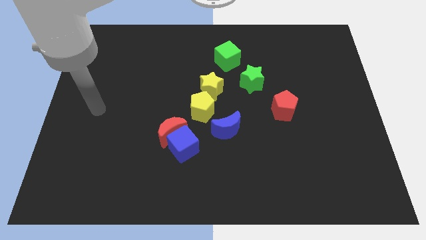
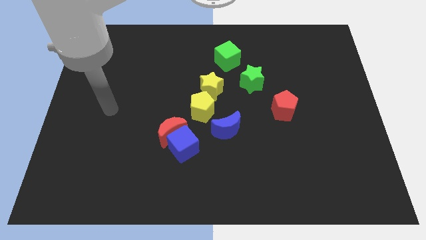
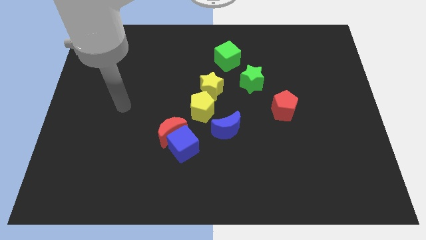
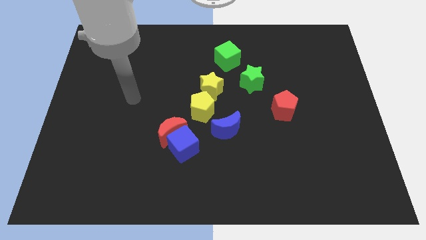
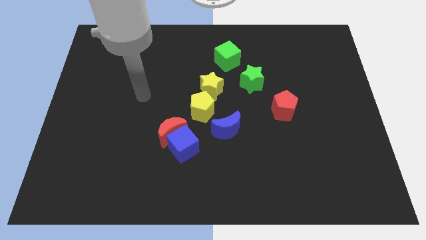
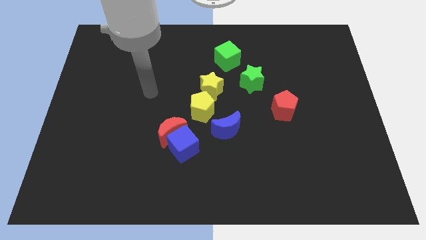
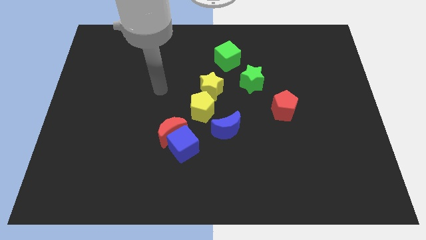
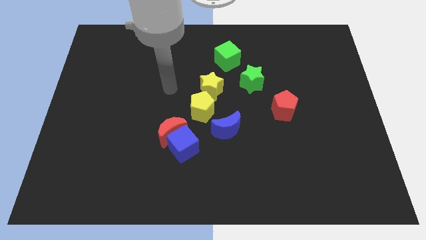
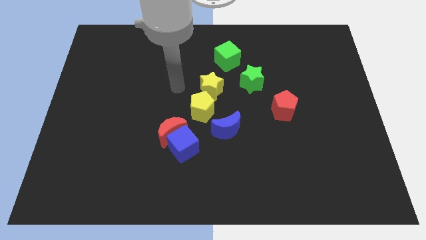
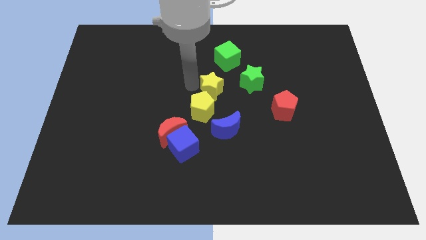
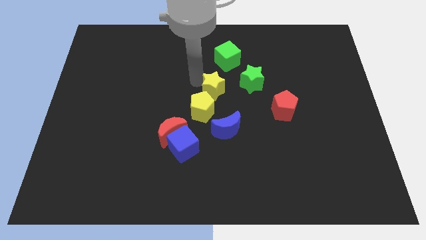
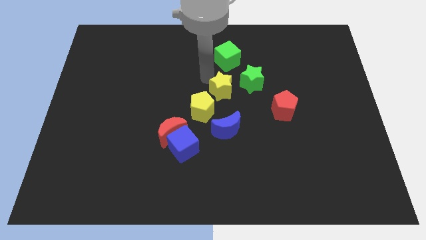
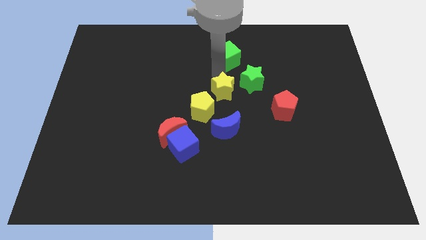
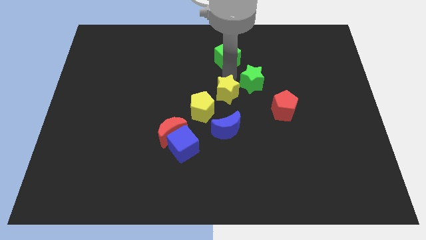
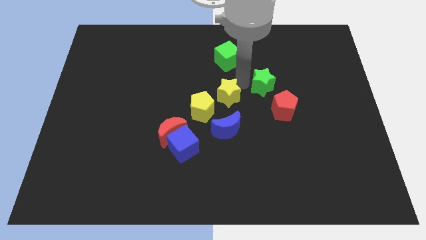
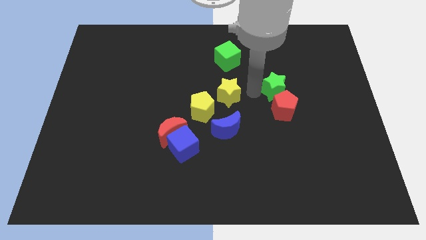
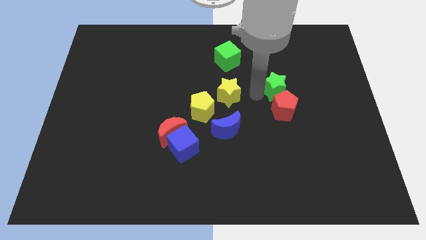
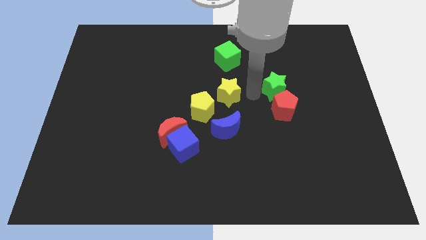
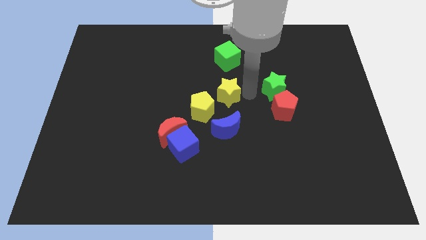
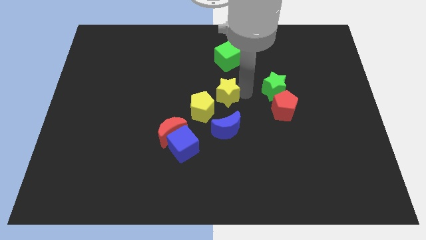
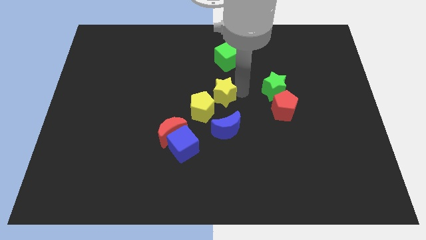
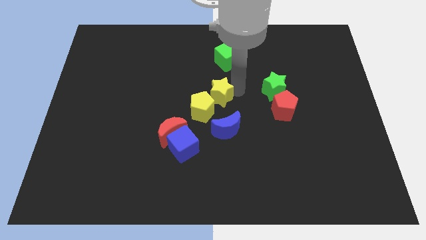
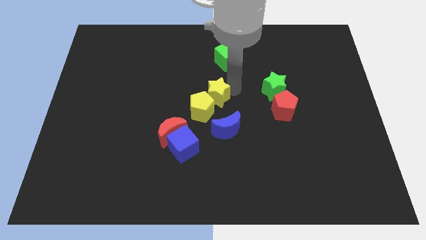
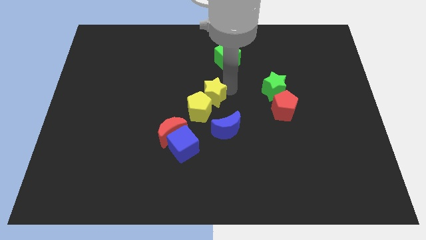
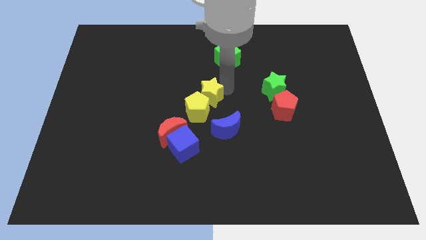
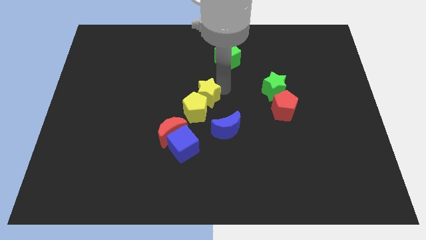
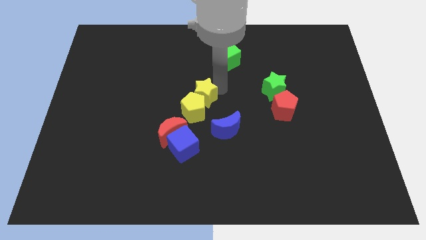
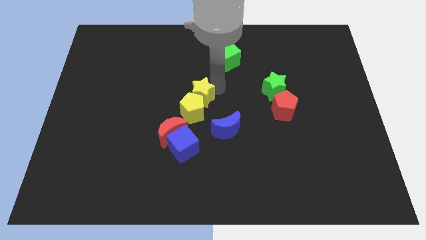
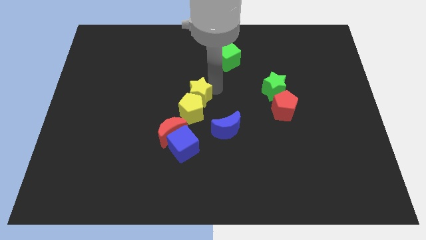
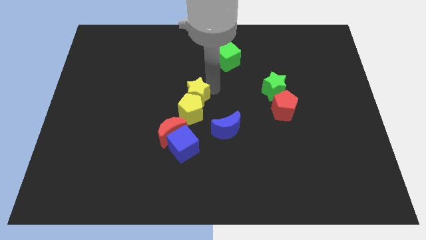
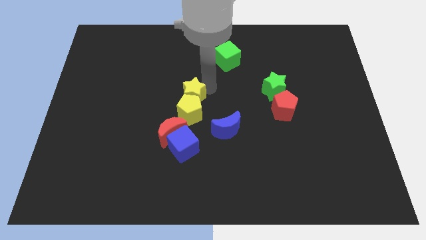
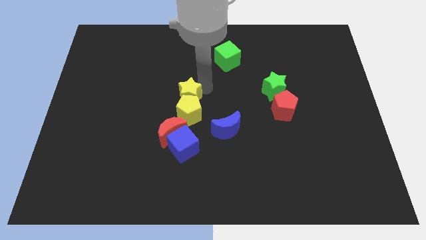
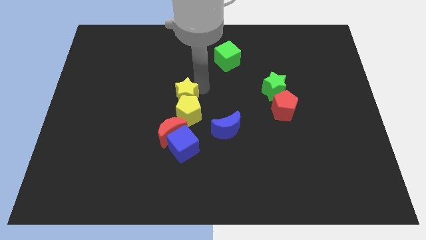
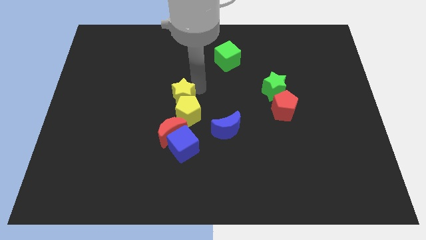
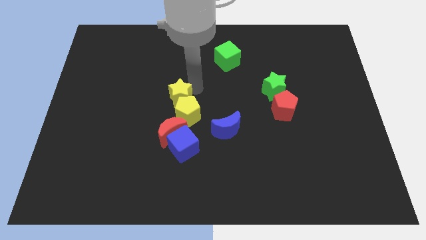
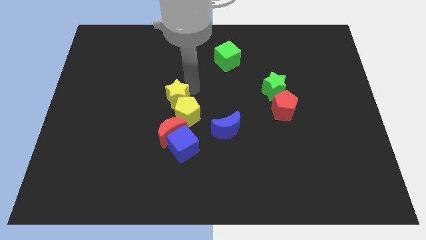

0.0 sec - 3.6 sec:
push the yellow star a little down and left

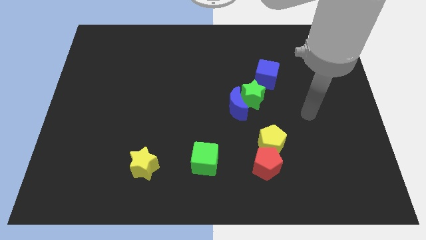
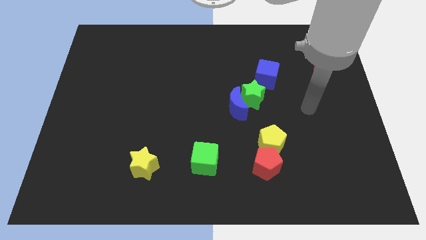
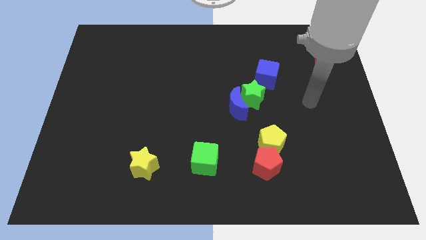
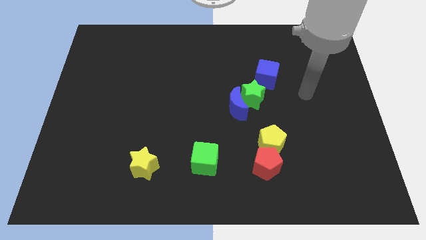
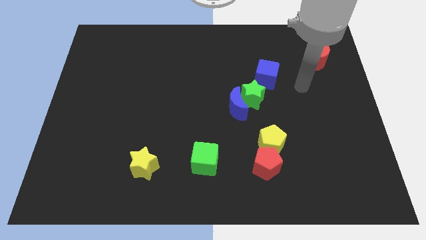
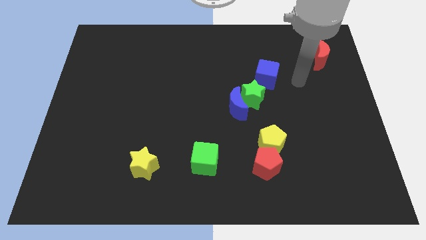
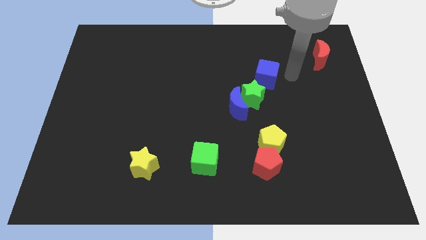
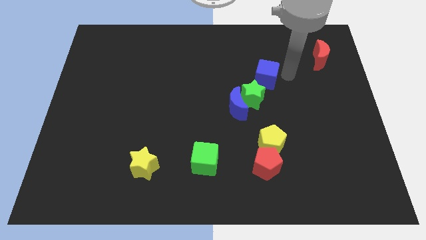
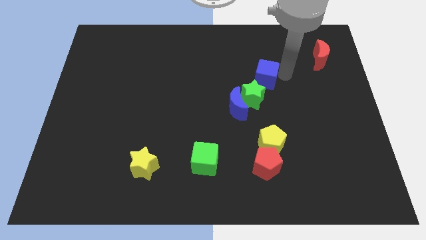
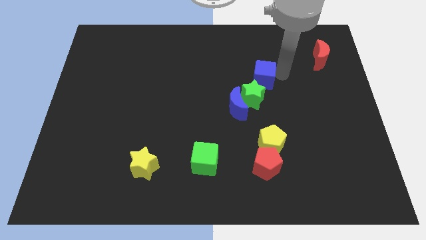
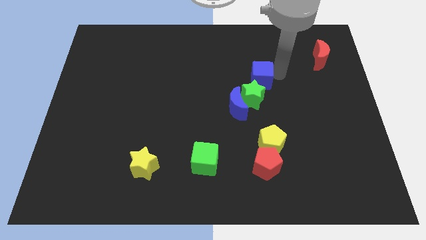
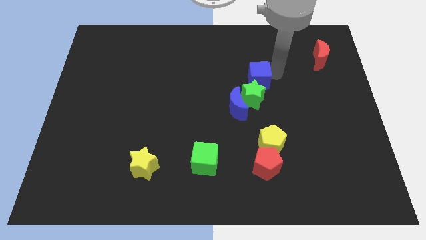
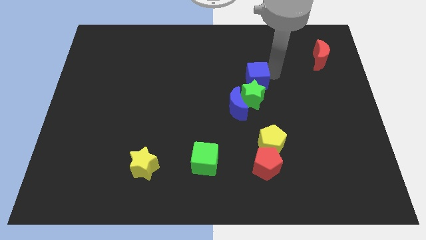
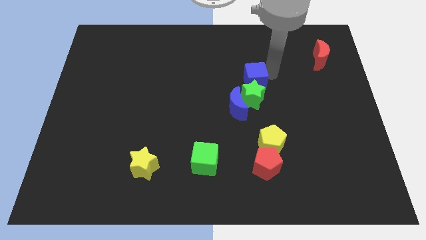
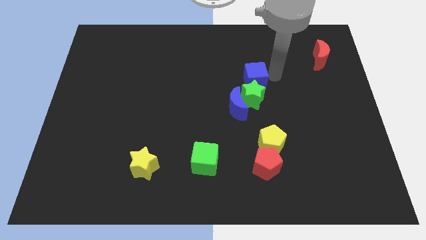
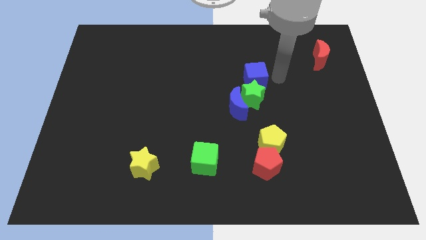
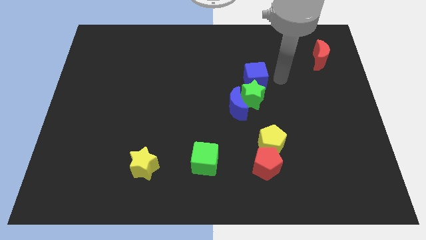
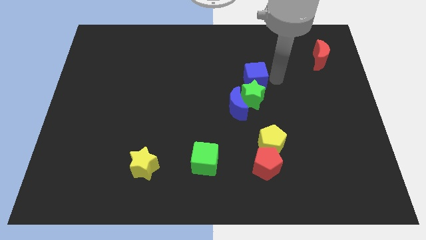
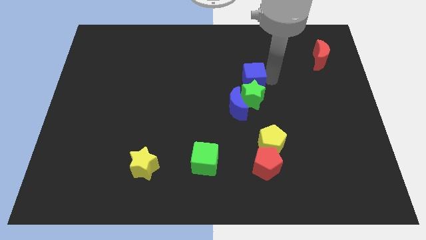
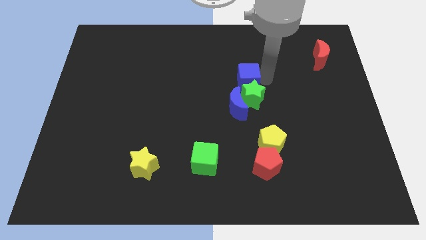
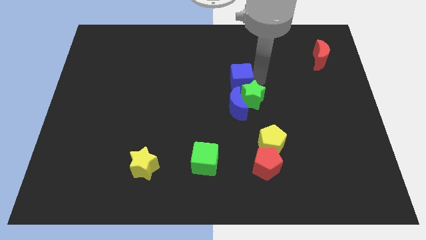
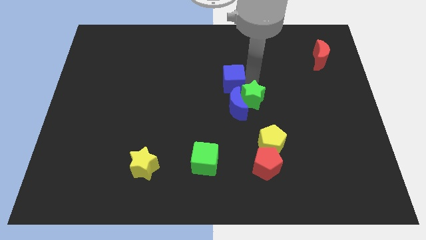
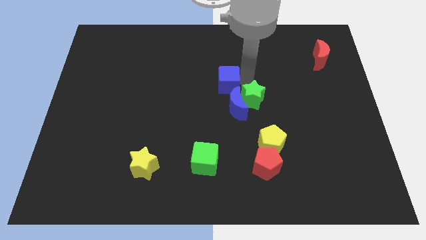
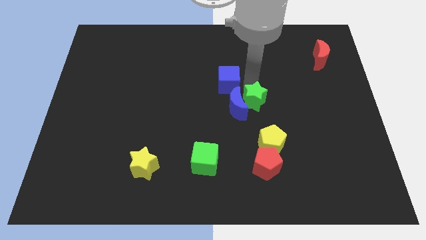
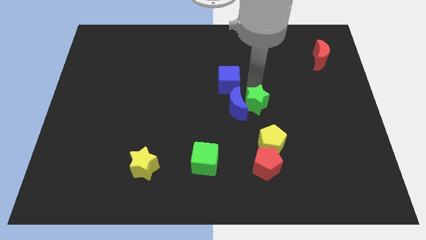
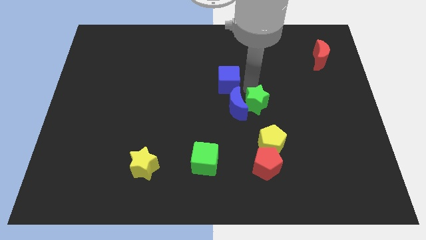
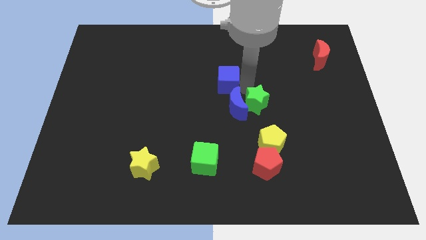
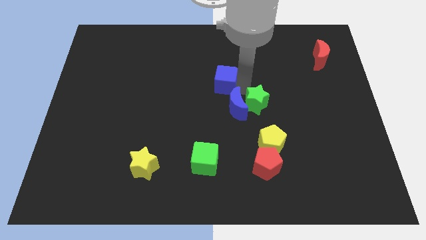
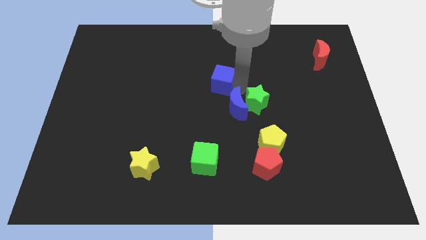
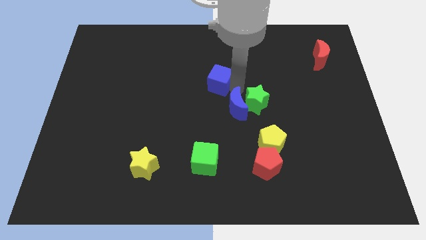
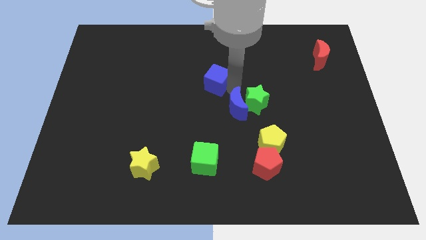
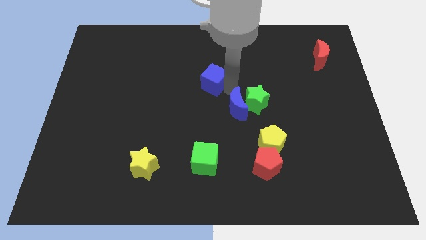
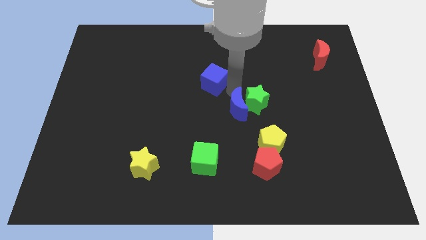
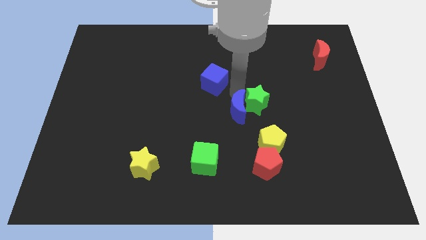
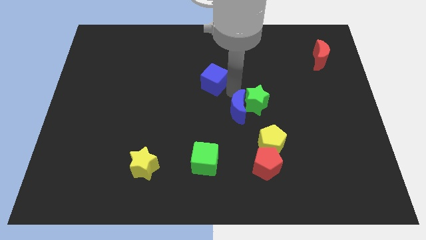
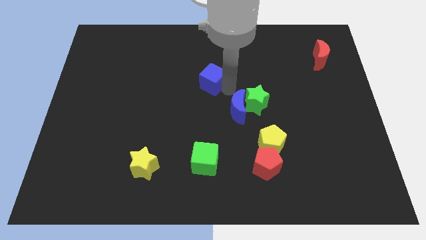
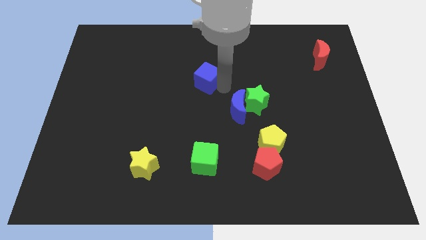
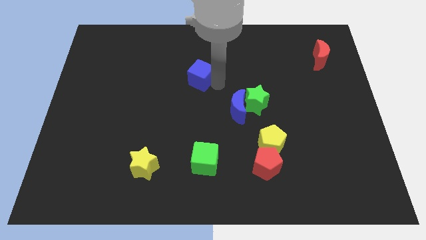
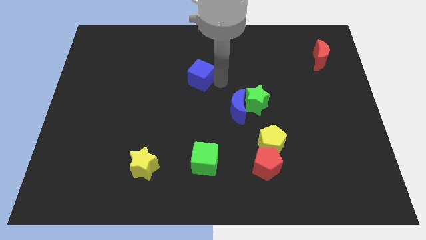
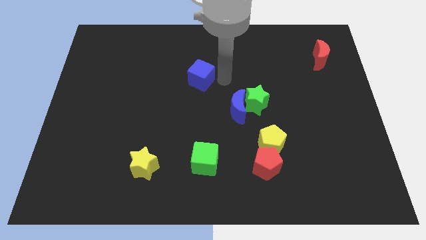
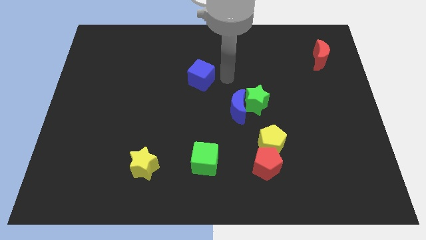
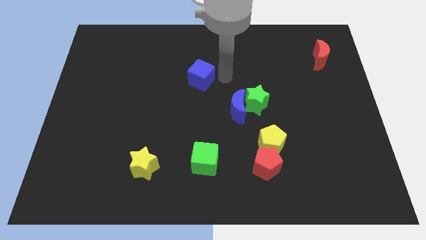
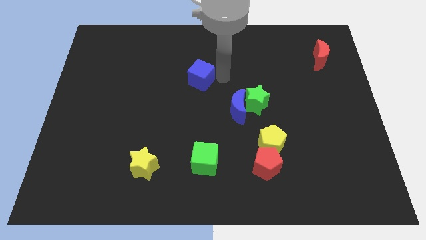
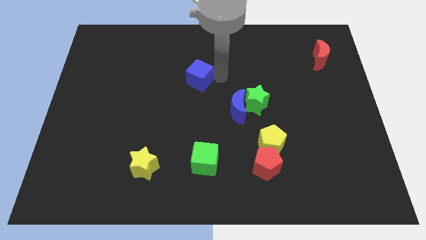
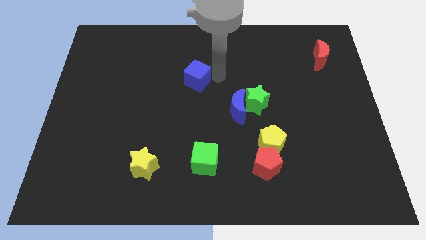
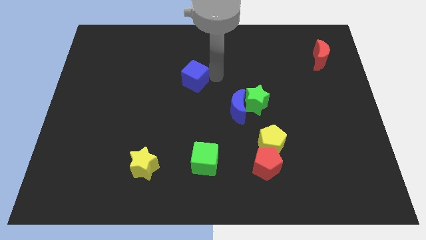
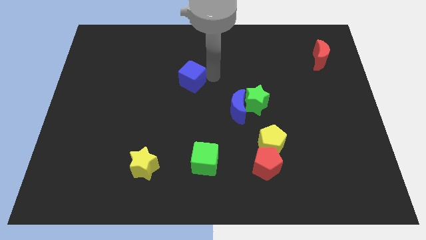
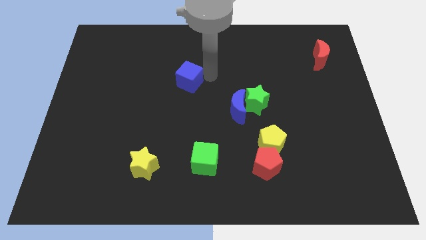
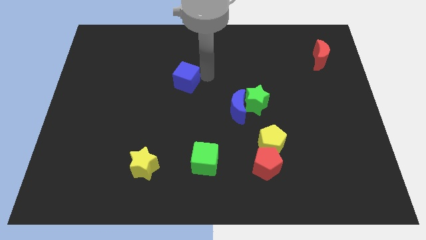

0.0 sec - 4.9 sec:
move the blue cube left
